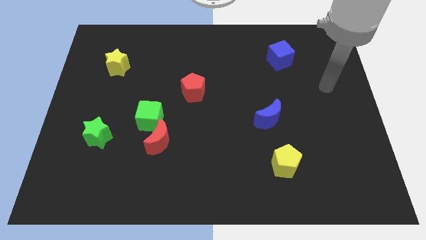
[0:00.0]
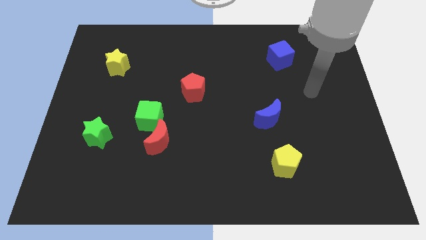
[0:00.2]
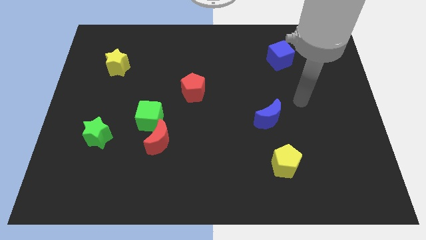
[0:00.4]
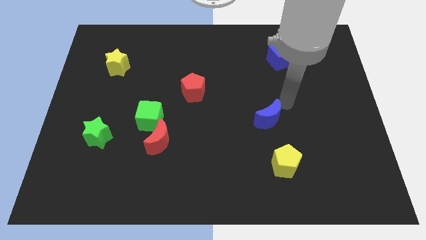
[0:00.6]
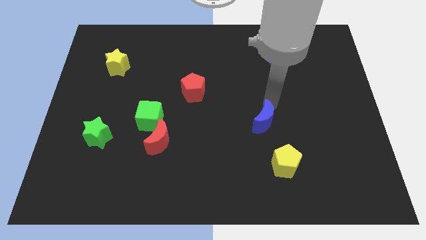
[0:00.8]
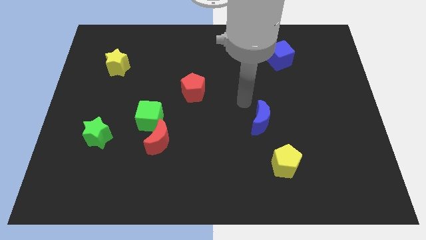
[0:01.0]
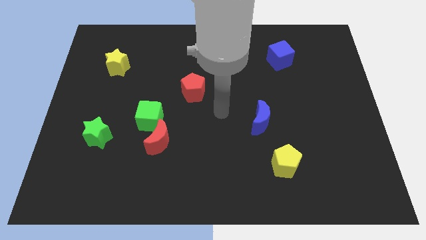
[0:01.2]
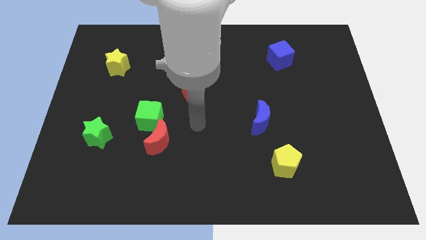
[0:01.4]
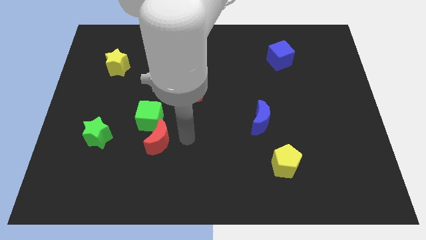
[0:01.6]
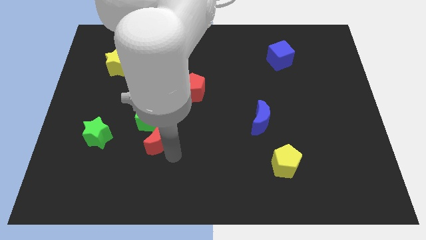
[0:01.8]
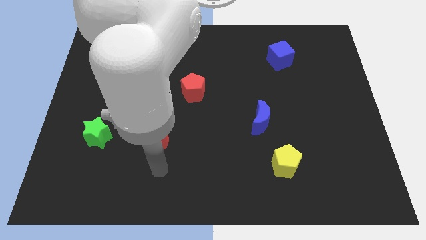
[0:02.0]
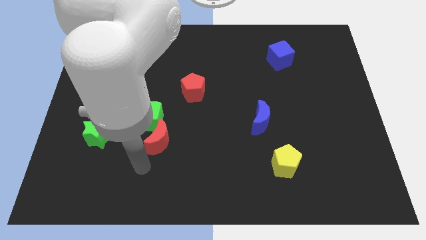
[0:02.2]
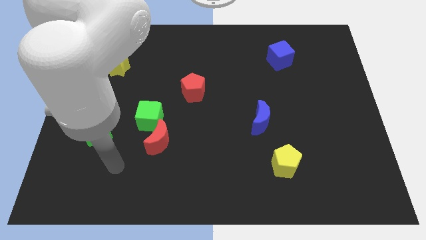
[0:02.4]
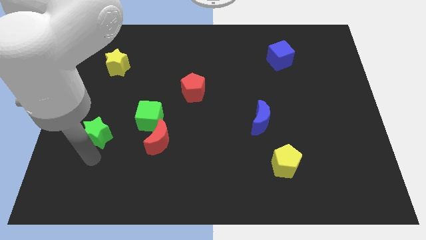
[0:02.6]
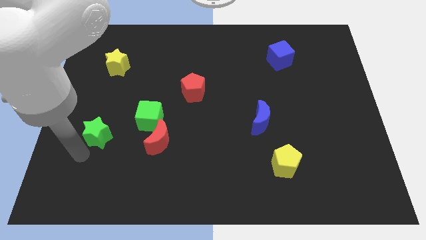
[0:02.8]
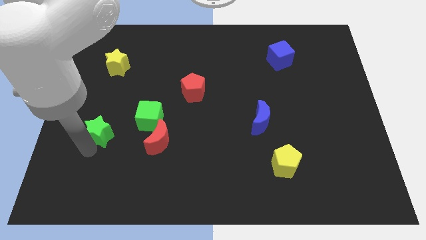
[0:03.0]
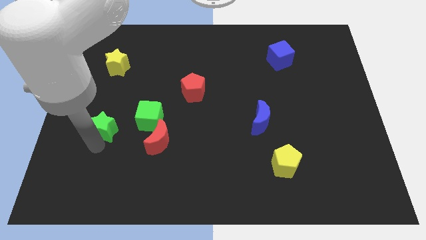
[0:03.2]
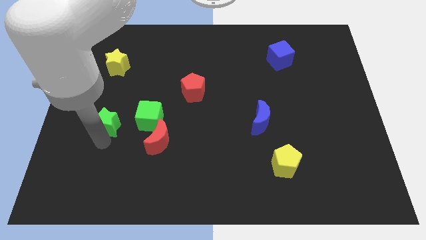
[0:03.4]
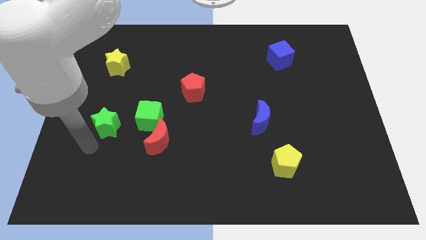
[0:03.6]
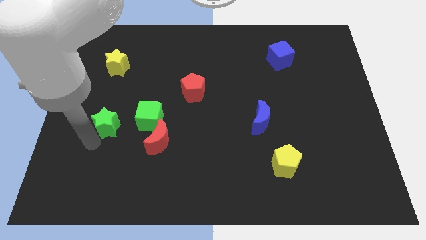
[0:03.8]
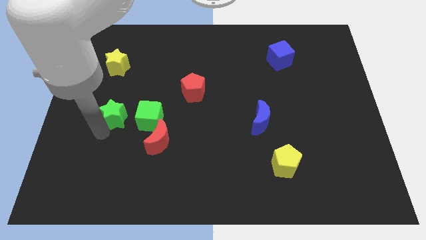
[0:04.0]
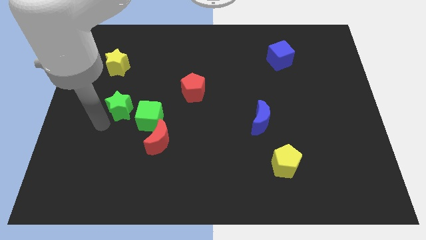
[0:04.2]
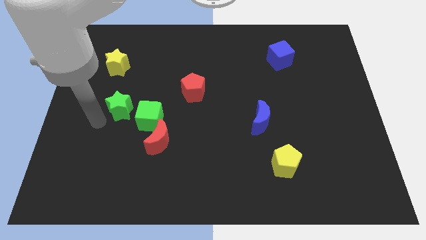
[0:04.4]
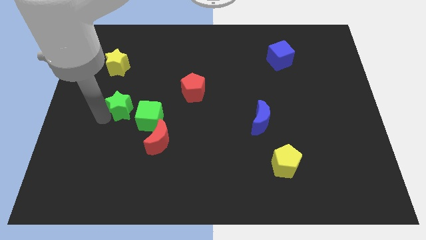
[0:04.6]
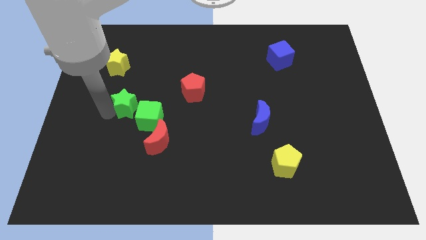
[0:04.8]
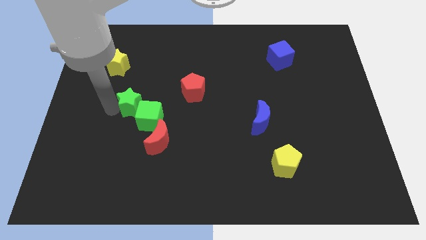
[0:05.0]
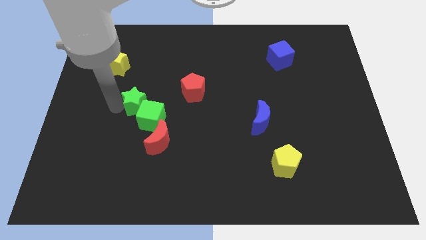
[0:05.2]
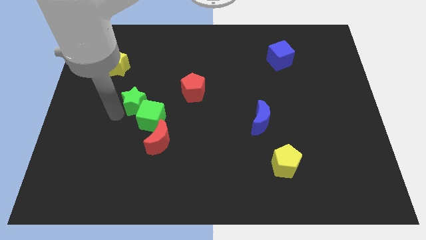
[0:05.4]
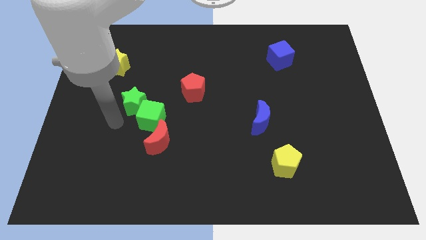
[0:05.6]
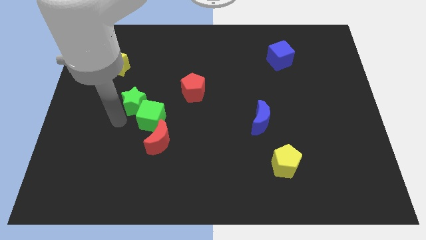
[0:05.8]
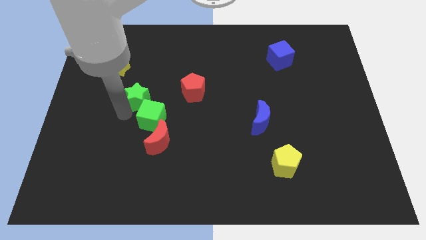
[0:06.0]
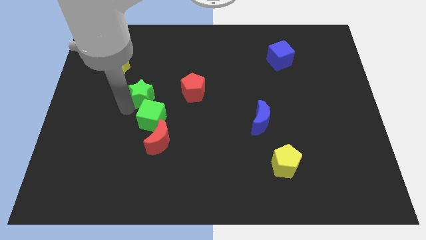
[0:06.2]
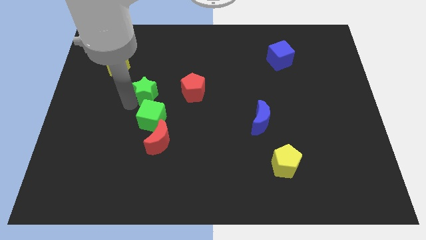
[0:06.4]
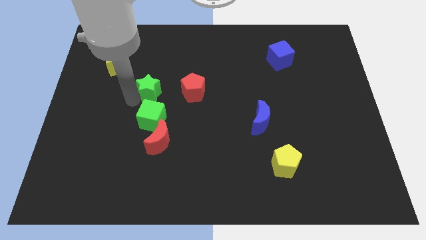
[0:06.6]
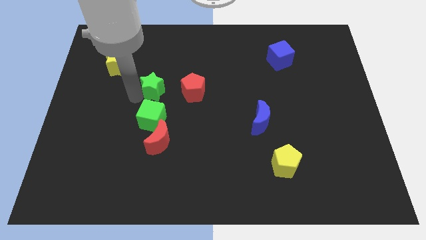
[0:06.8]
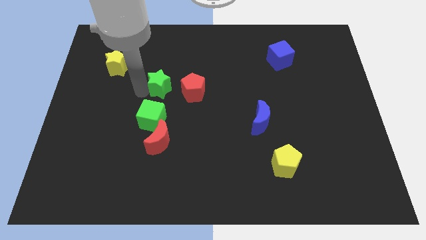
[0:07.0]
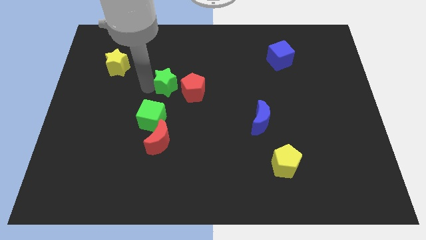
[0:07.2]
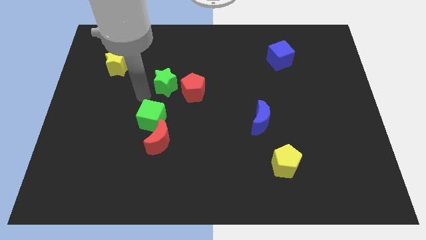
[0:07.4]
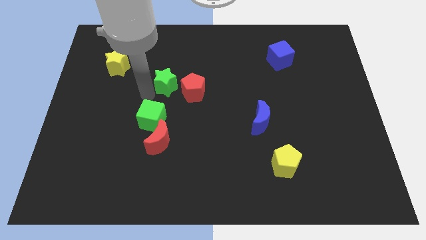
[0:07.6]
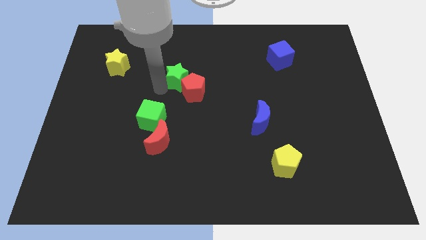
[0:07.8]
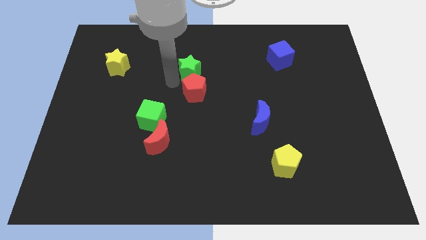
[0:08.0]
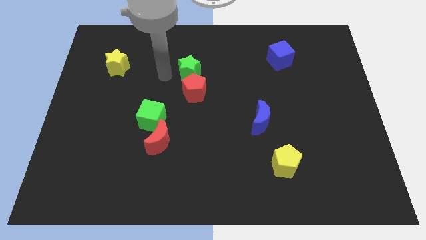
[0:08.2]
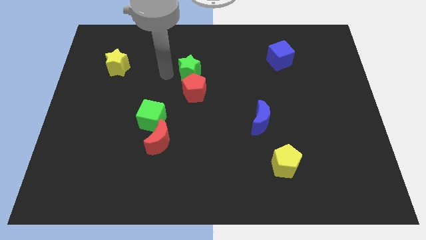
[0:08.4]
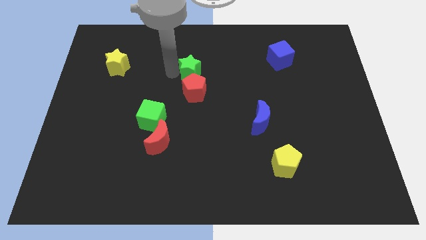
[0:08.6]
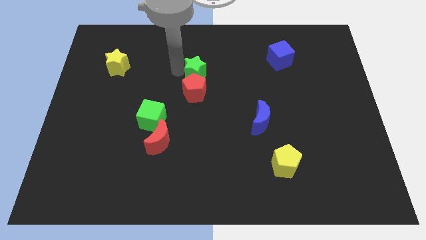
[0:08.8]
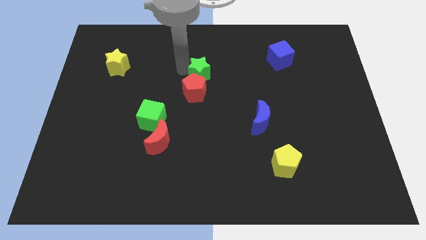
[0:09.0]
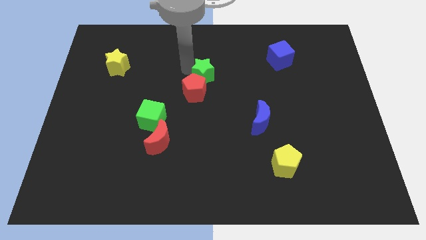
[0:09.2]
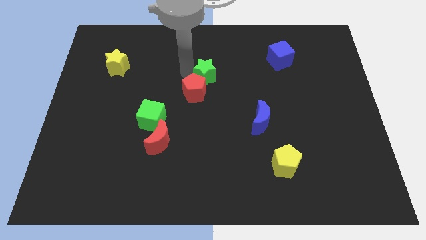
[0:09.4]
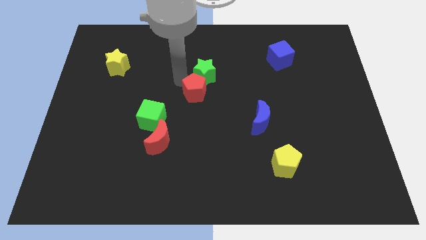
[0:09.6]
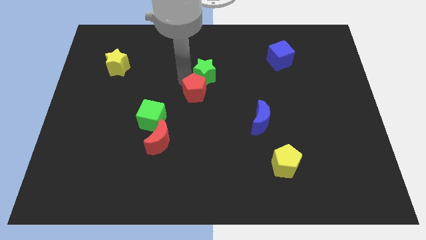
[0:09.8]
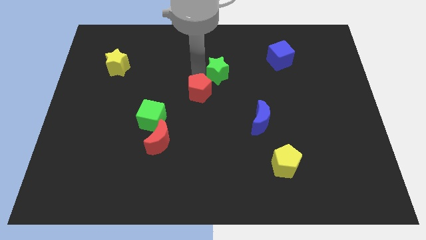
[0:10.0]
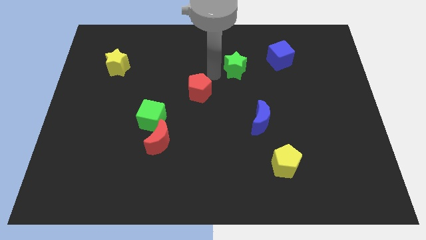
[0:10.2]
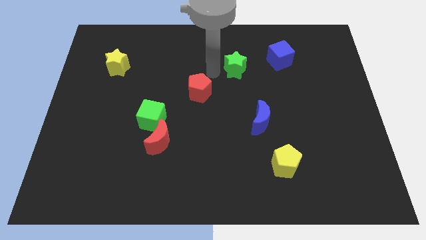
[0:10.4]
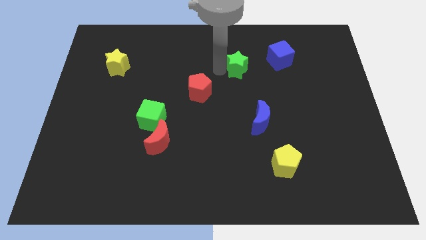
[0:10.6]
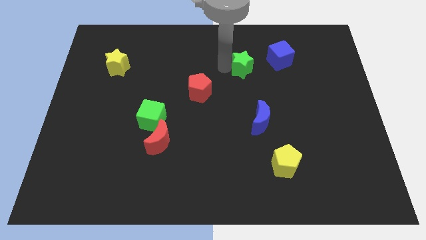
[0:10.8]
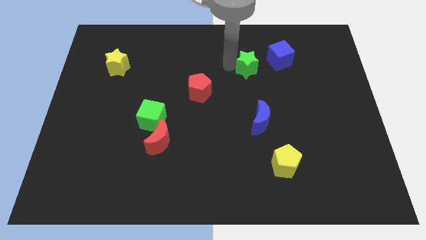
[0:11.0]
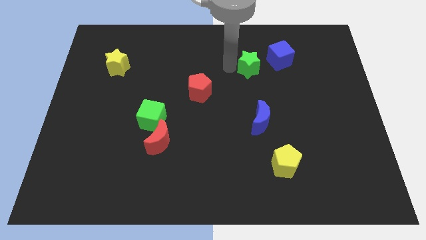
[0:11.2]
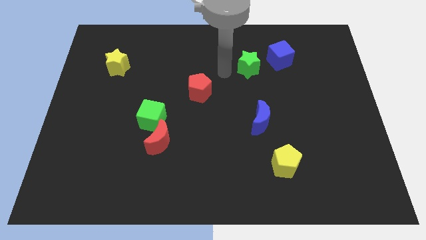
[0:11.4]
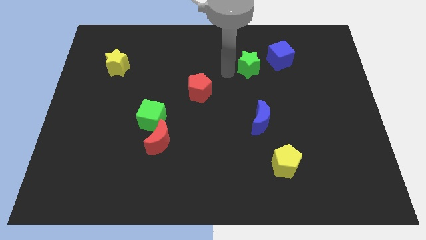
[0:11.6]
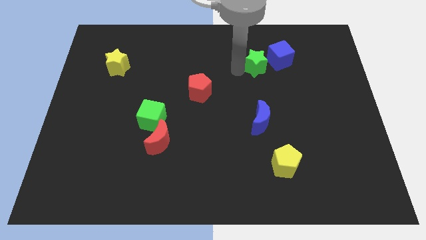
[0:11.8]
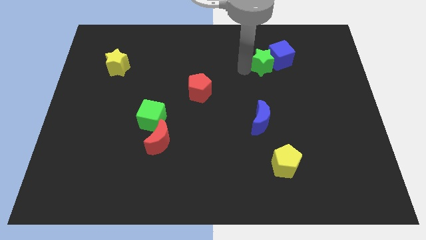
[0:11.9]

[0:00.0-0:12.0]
put the green star to the blue cube

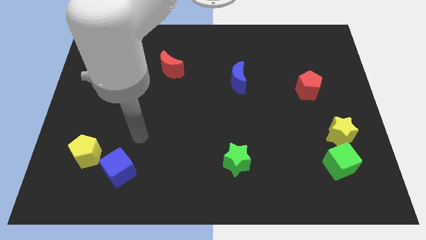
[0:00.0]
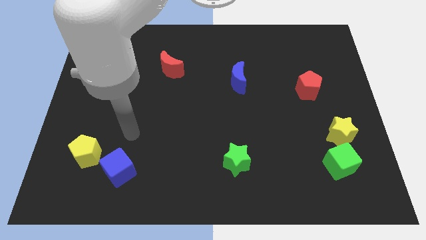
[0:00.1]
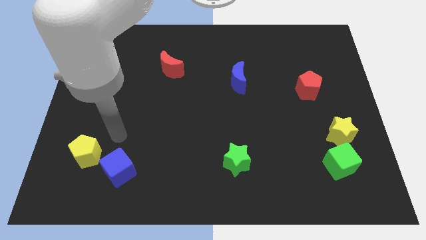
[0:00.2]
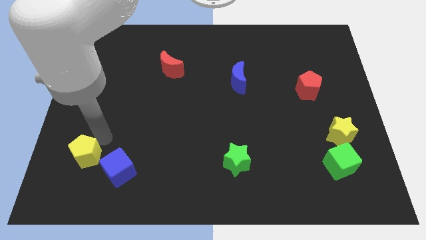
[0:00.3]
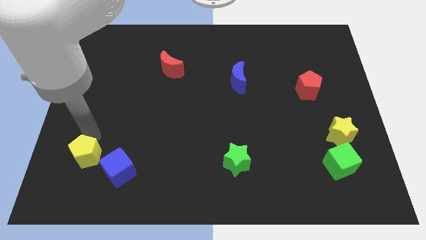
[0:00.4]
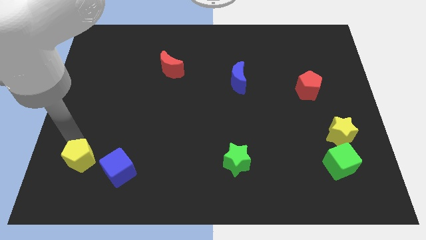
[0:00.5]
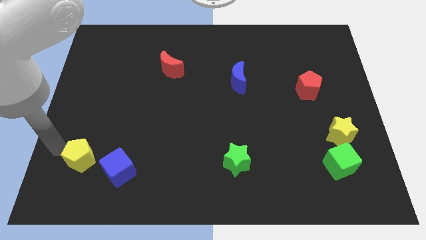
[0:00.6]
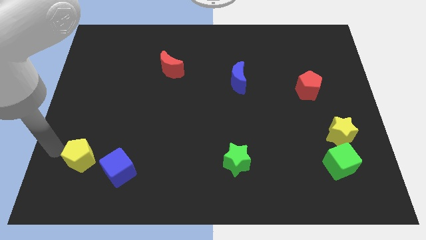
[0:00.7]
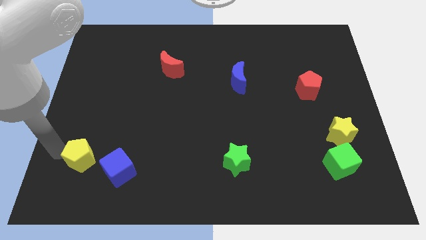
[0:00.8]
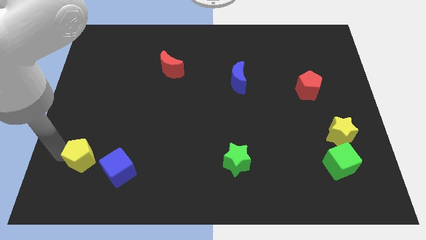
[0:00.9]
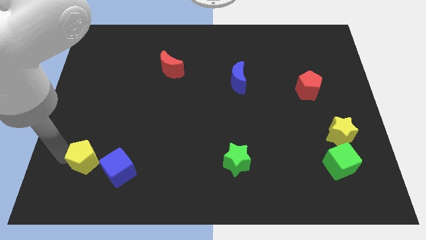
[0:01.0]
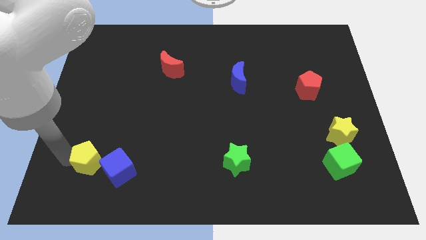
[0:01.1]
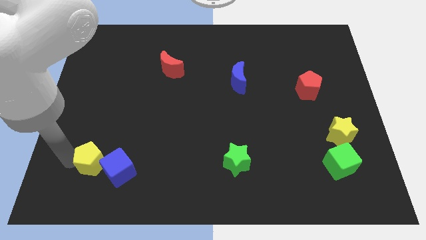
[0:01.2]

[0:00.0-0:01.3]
slide the yellow pentagon towards the blue cube

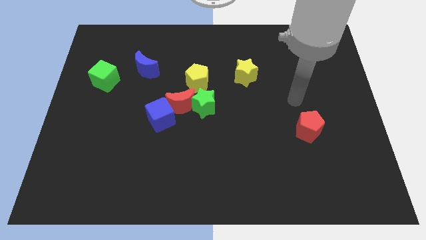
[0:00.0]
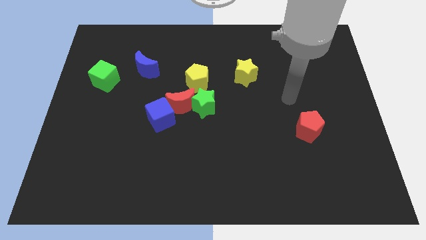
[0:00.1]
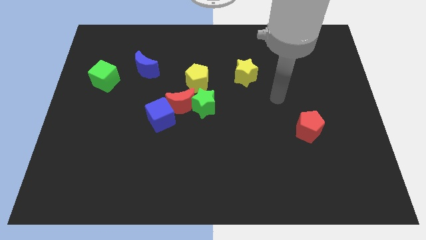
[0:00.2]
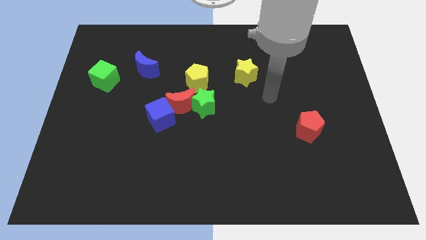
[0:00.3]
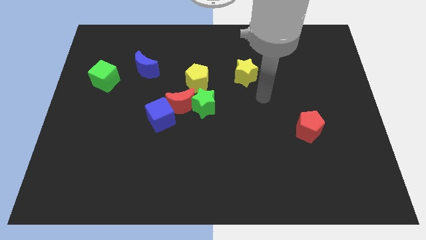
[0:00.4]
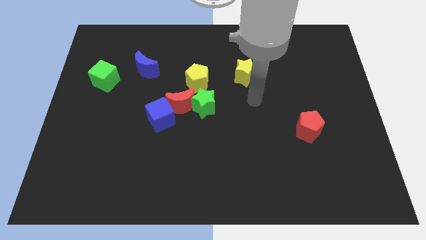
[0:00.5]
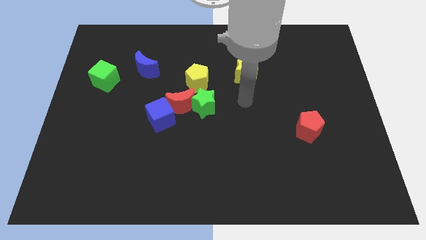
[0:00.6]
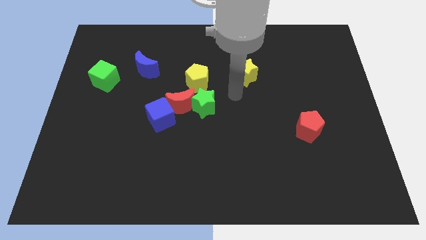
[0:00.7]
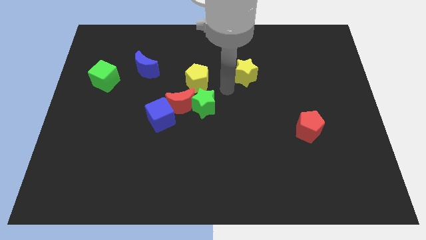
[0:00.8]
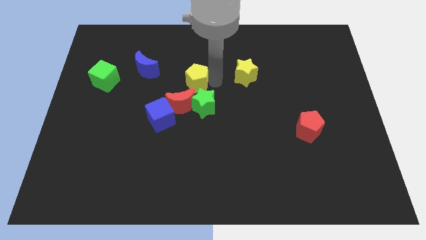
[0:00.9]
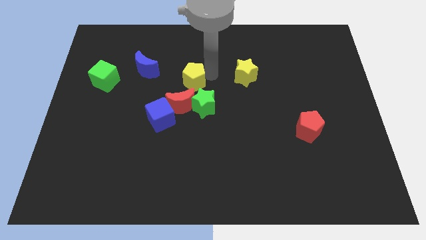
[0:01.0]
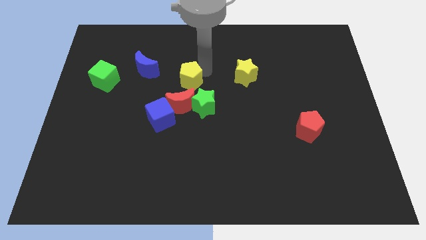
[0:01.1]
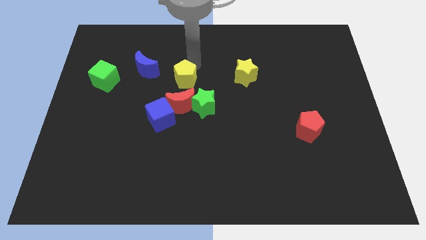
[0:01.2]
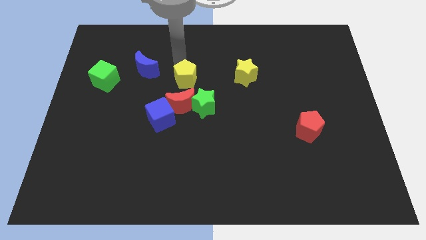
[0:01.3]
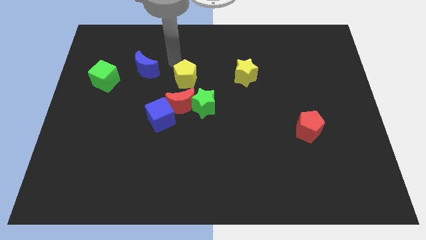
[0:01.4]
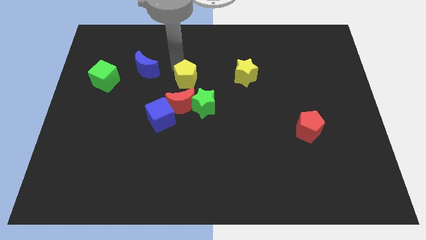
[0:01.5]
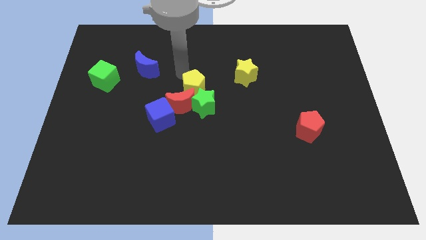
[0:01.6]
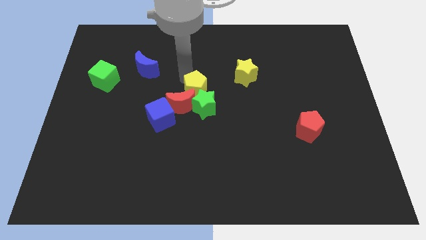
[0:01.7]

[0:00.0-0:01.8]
move the yellow pentagon close to the green star
